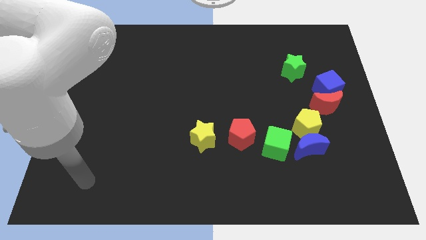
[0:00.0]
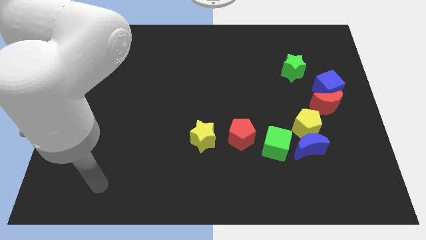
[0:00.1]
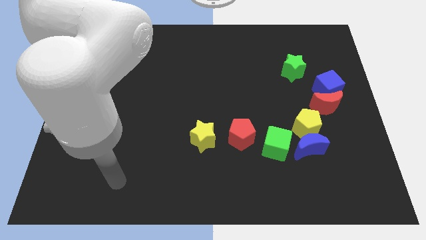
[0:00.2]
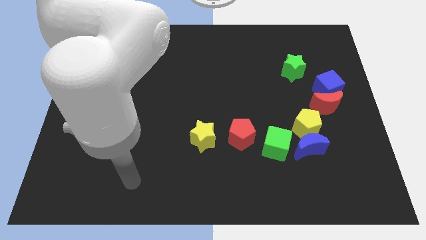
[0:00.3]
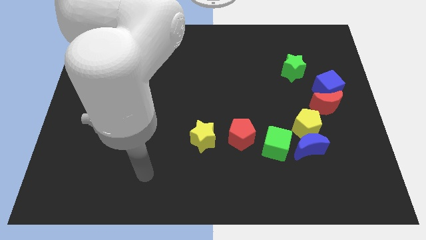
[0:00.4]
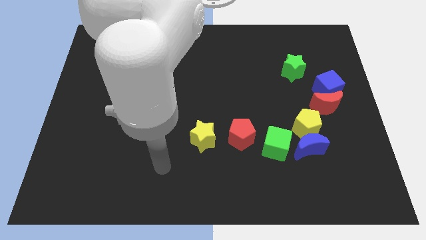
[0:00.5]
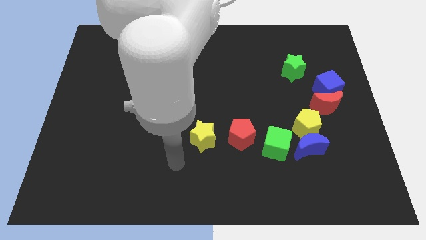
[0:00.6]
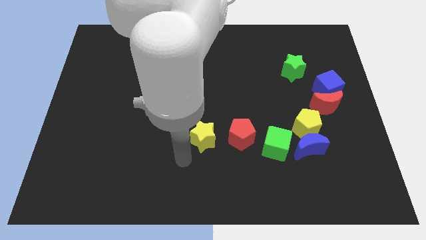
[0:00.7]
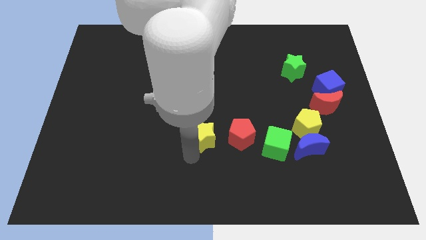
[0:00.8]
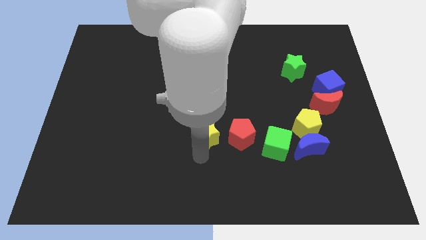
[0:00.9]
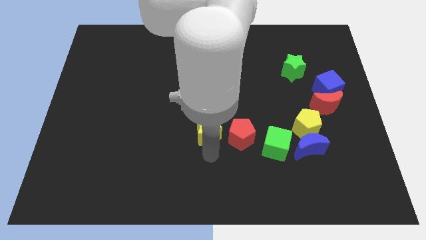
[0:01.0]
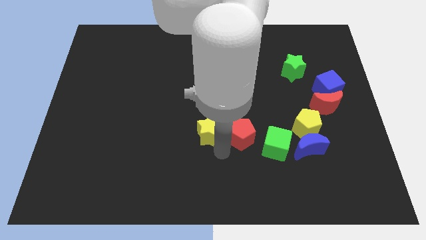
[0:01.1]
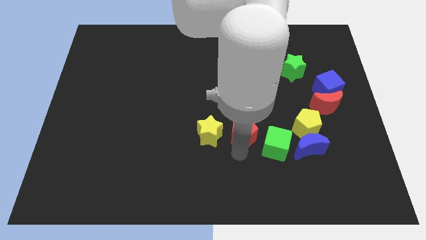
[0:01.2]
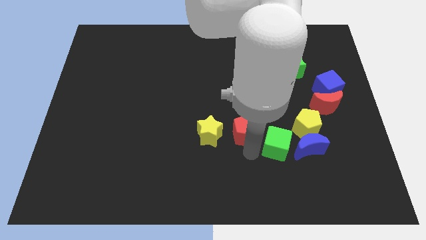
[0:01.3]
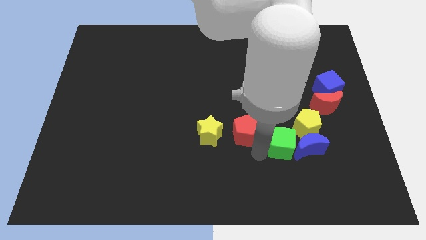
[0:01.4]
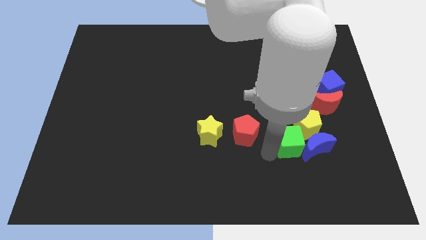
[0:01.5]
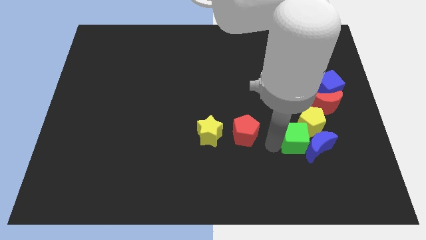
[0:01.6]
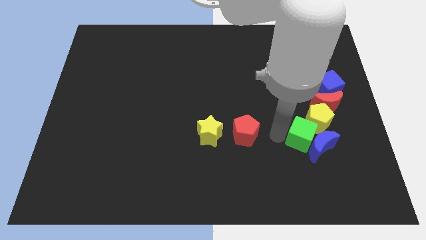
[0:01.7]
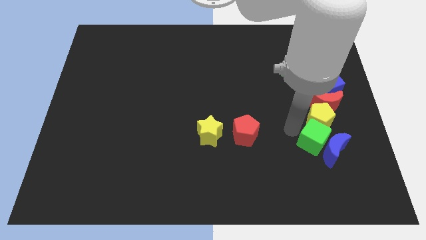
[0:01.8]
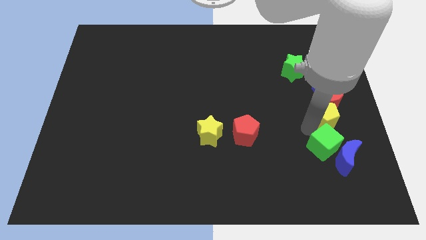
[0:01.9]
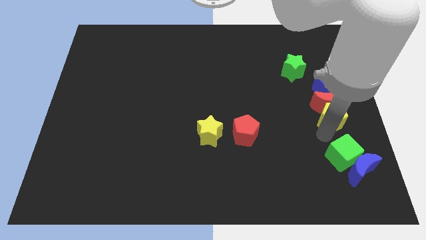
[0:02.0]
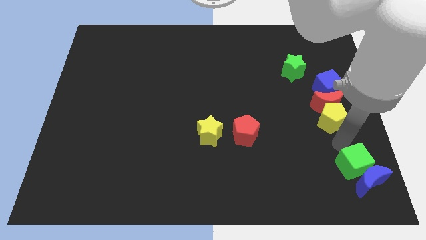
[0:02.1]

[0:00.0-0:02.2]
separate the blue moon from the yellow pentagon and green cube

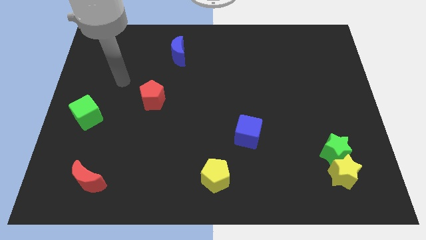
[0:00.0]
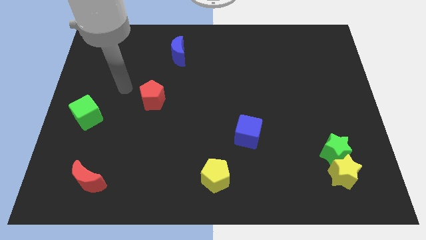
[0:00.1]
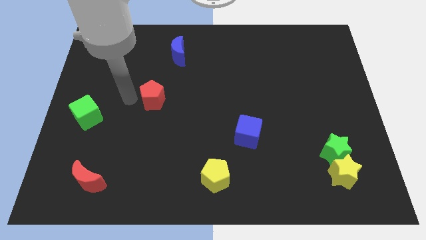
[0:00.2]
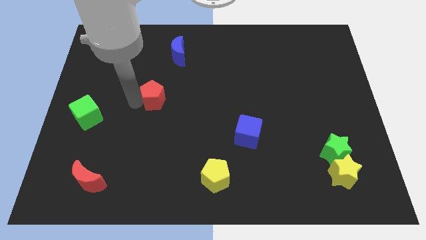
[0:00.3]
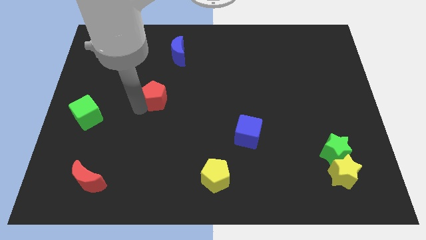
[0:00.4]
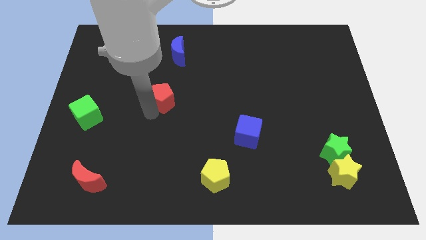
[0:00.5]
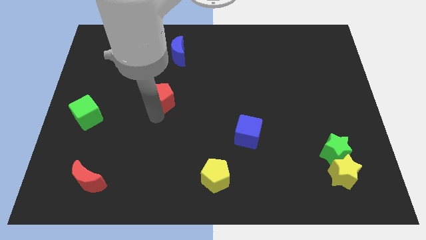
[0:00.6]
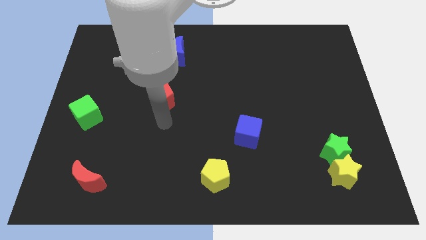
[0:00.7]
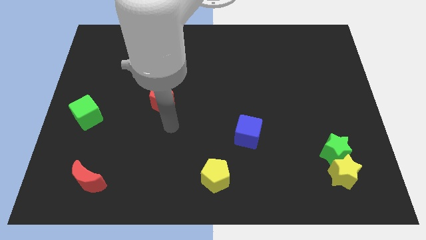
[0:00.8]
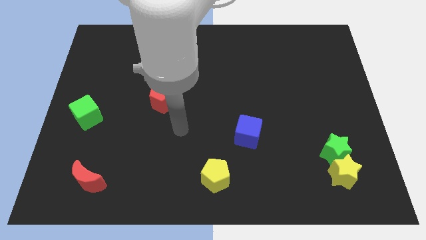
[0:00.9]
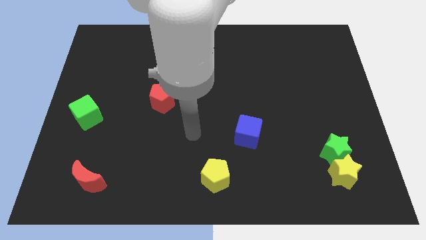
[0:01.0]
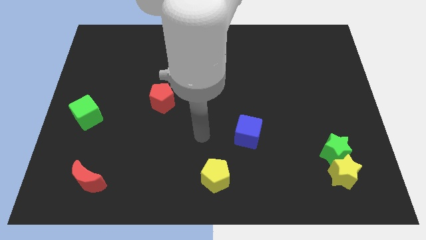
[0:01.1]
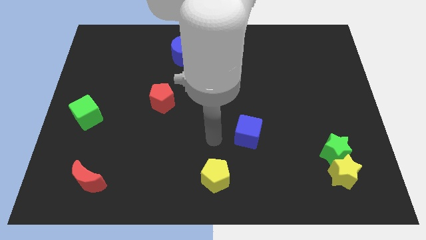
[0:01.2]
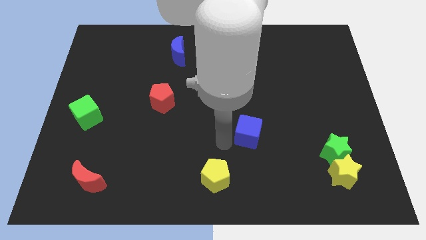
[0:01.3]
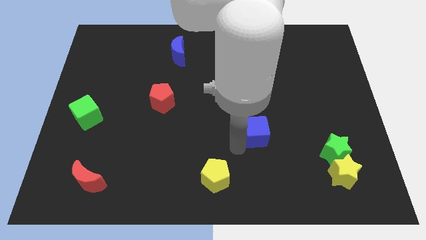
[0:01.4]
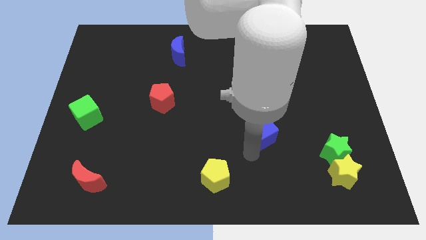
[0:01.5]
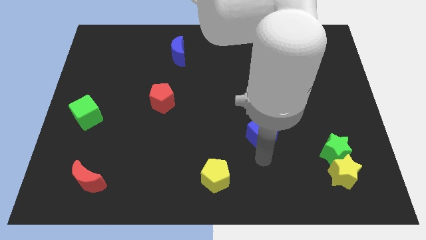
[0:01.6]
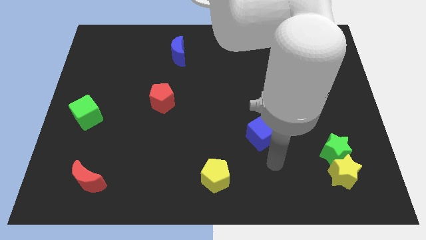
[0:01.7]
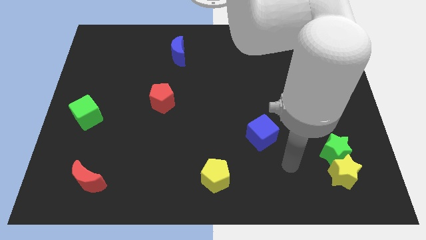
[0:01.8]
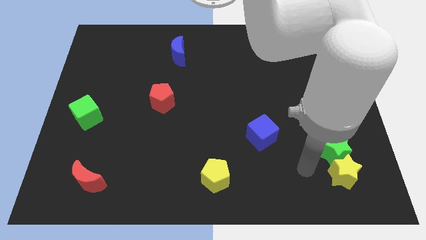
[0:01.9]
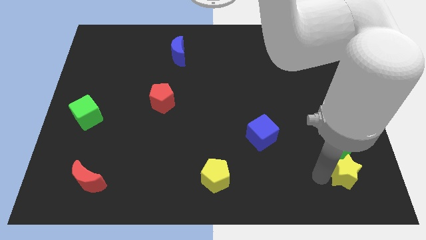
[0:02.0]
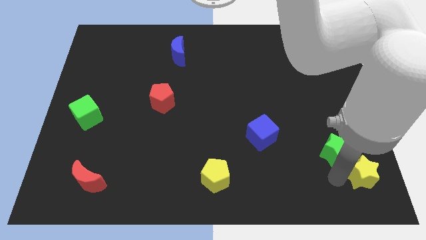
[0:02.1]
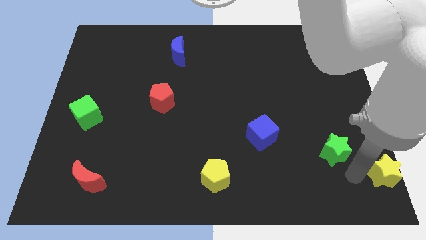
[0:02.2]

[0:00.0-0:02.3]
pull the green star apart from the yellow star

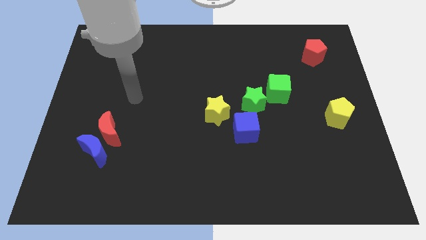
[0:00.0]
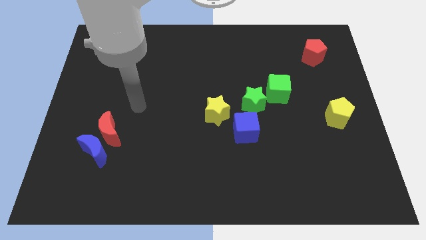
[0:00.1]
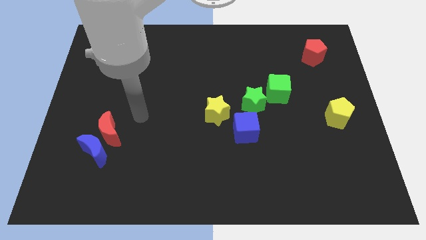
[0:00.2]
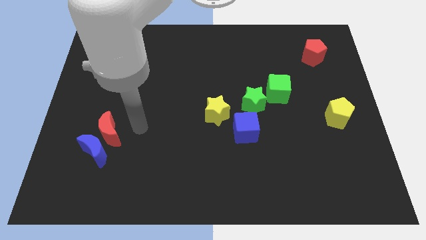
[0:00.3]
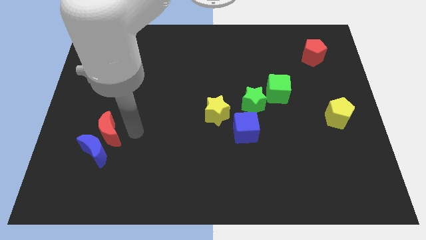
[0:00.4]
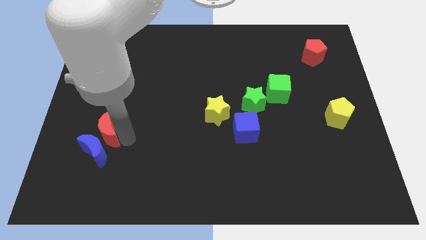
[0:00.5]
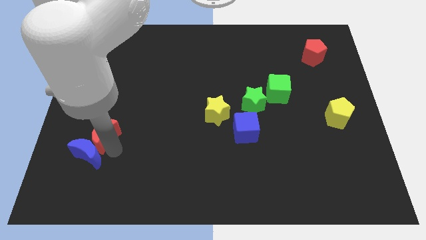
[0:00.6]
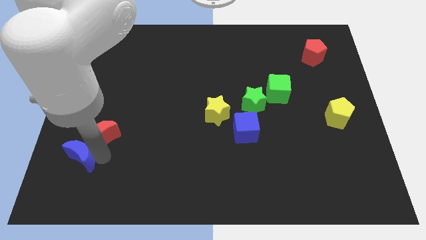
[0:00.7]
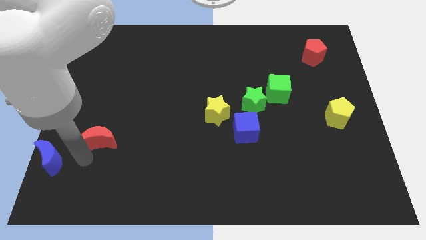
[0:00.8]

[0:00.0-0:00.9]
pull the red moon apart from the blue moon

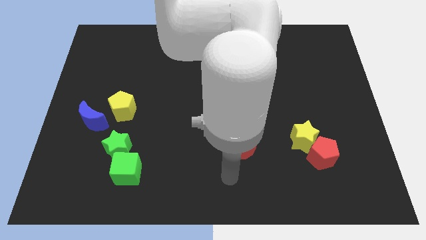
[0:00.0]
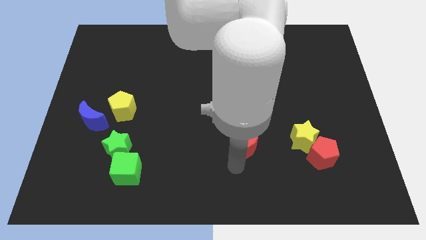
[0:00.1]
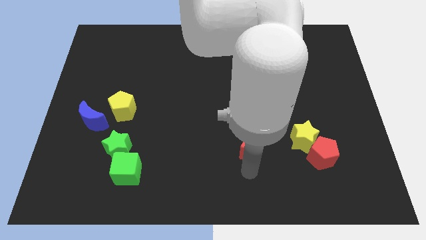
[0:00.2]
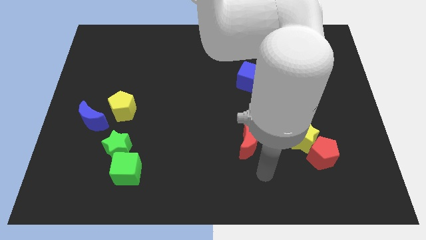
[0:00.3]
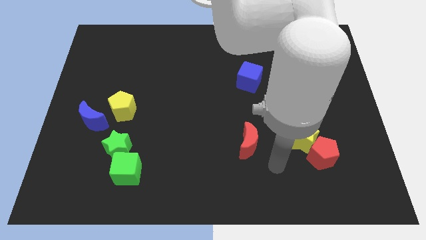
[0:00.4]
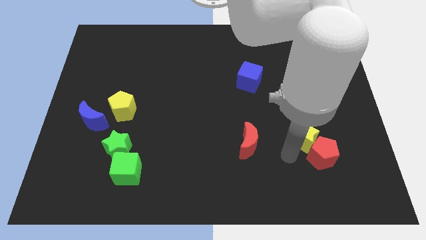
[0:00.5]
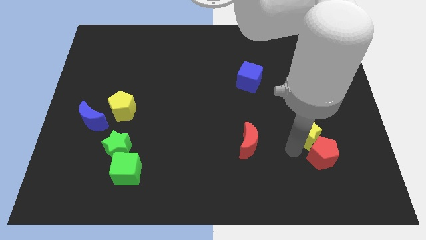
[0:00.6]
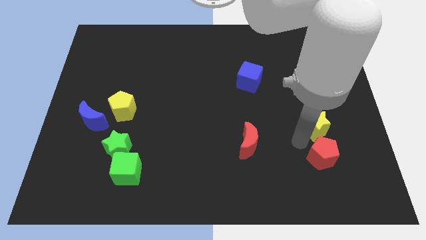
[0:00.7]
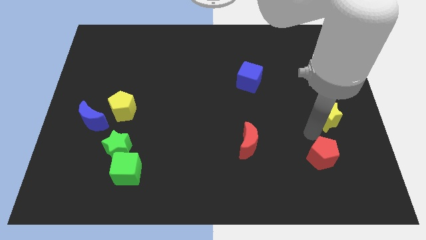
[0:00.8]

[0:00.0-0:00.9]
move the red pentagon away from the yellow star

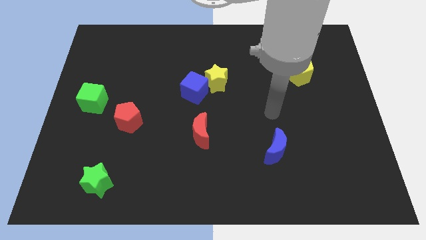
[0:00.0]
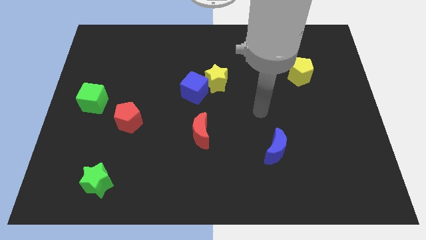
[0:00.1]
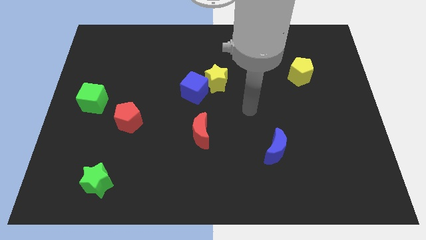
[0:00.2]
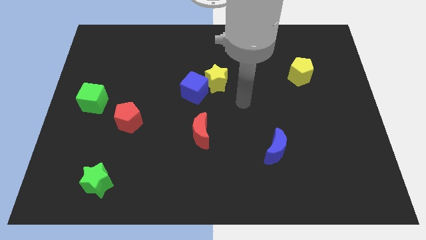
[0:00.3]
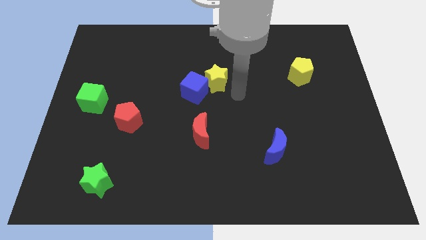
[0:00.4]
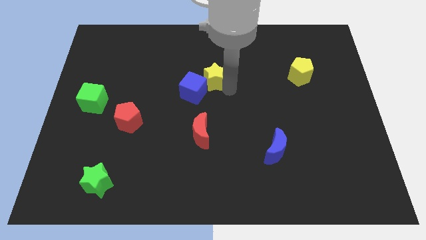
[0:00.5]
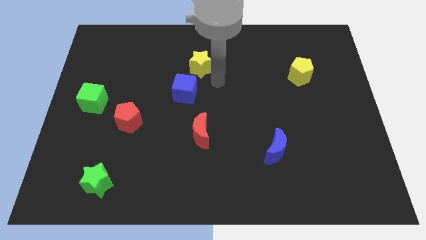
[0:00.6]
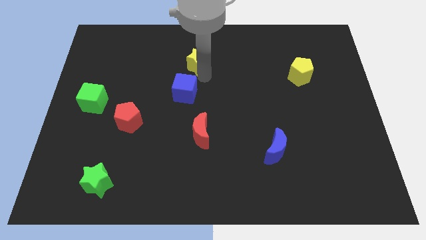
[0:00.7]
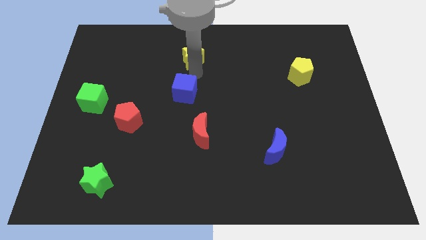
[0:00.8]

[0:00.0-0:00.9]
move the blue cube away from the yellow star

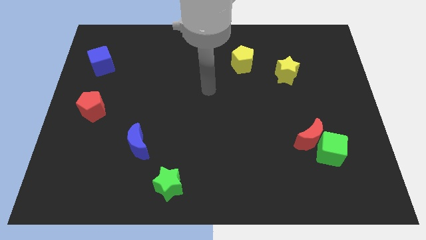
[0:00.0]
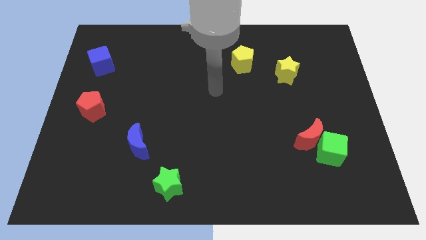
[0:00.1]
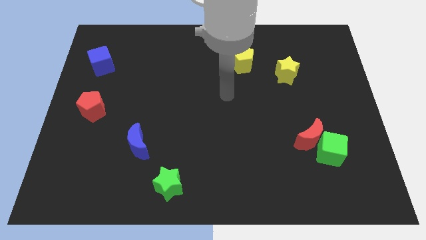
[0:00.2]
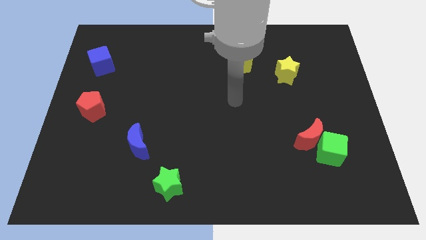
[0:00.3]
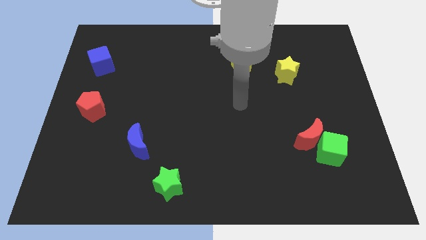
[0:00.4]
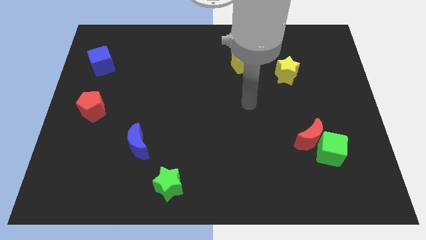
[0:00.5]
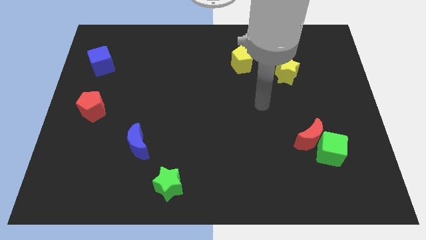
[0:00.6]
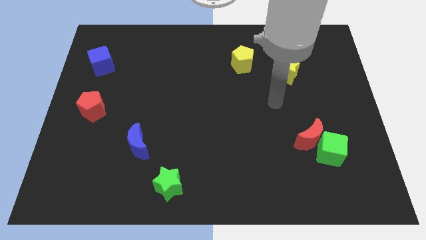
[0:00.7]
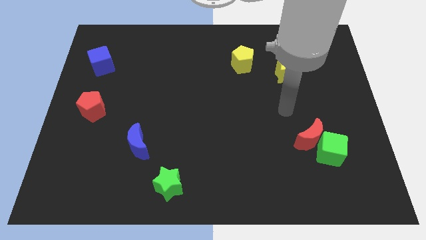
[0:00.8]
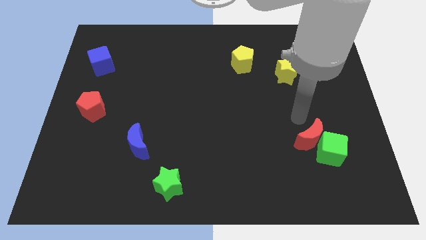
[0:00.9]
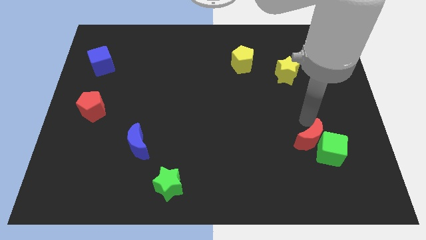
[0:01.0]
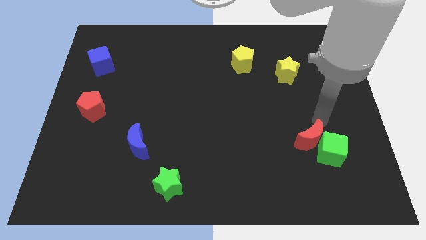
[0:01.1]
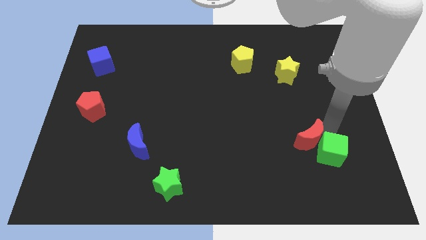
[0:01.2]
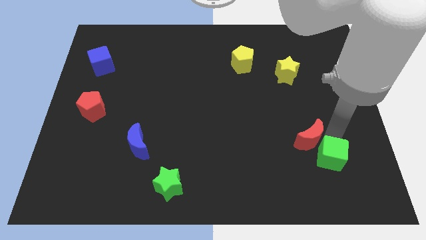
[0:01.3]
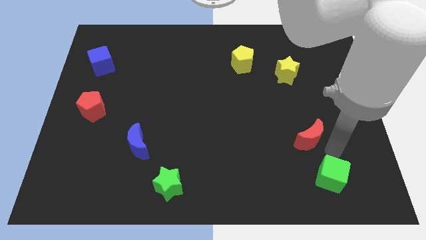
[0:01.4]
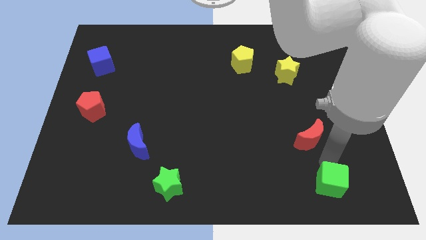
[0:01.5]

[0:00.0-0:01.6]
separate the red moon from the green cube

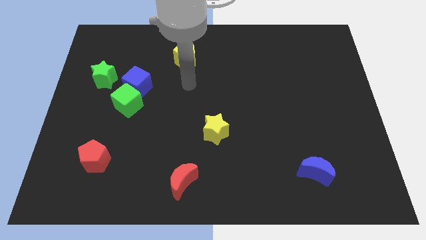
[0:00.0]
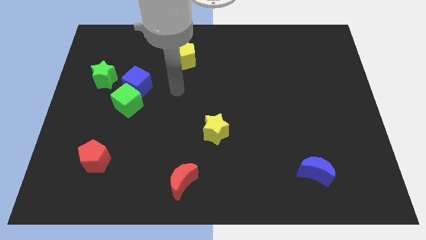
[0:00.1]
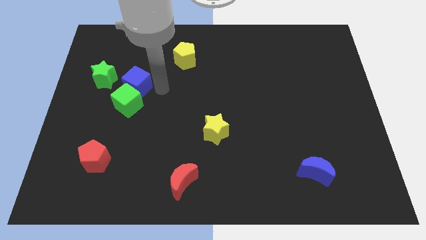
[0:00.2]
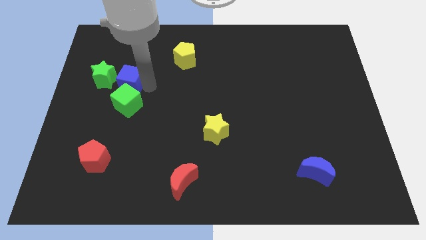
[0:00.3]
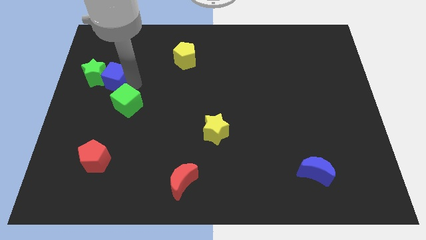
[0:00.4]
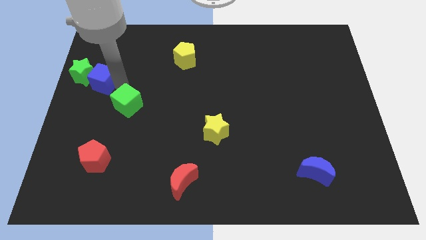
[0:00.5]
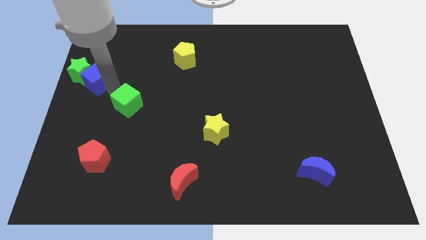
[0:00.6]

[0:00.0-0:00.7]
separate the green cube from the blue cube
